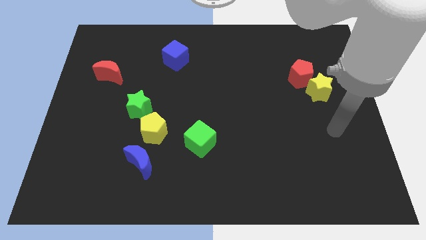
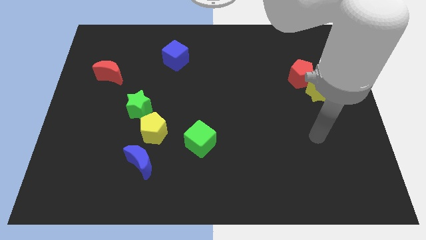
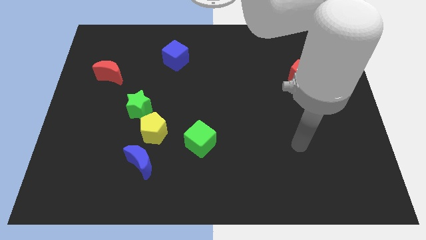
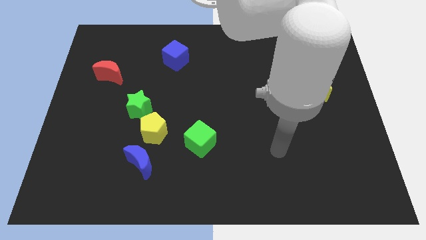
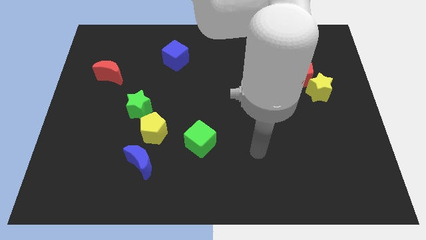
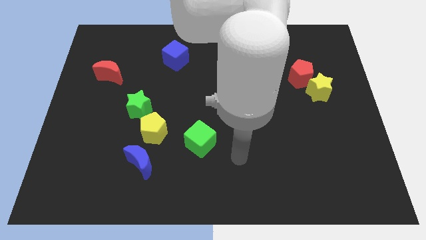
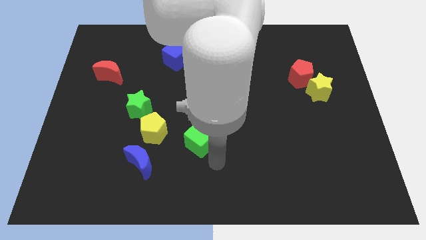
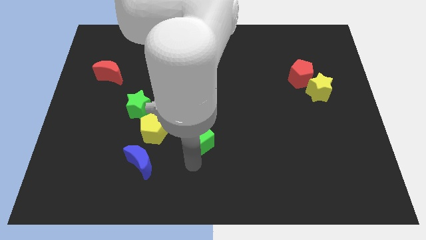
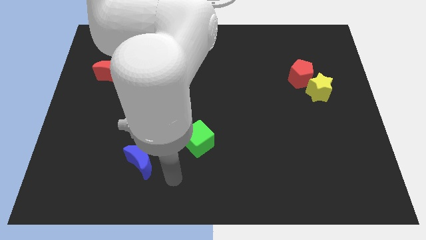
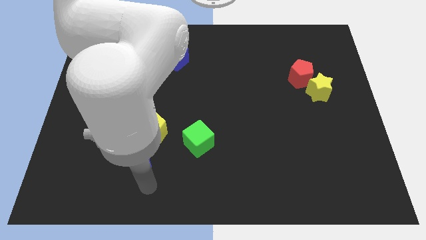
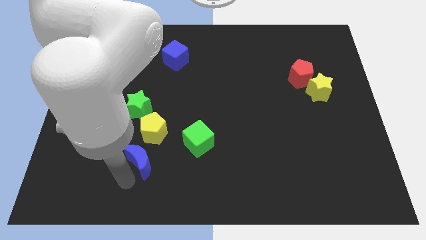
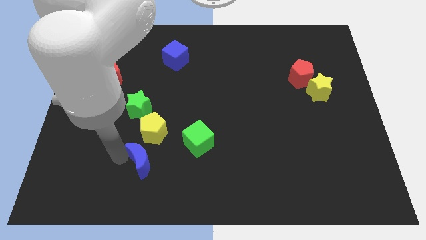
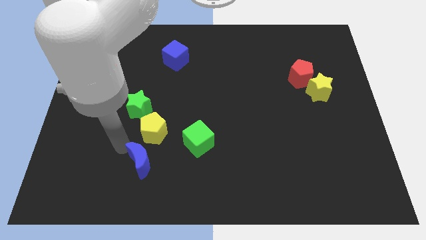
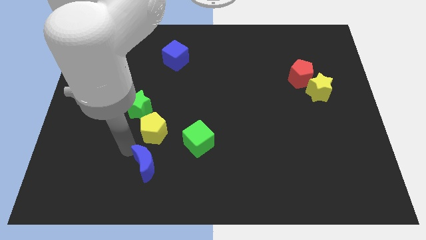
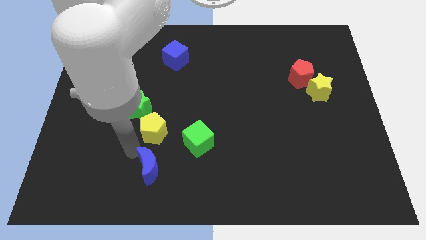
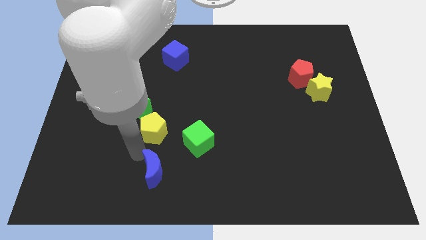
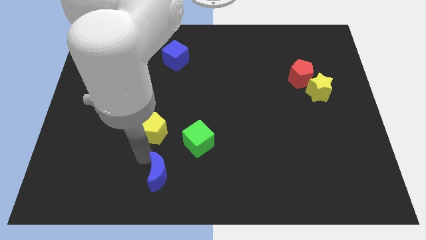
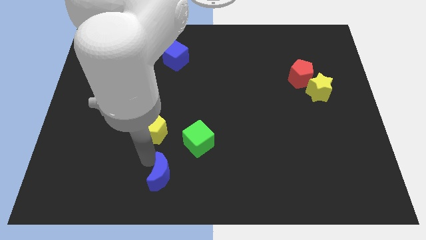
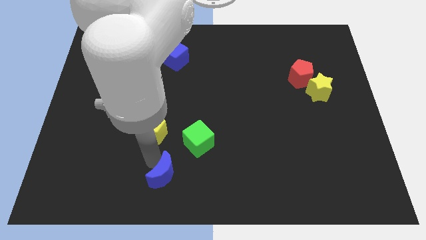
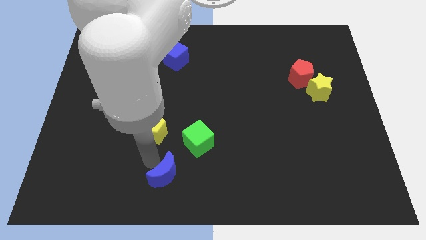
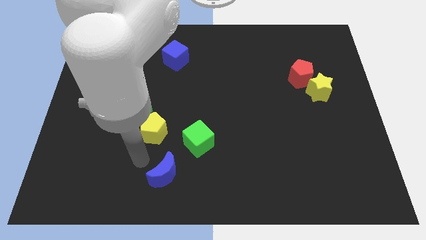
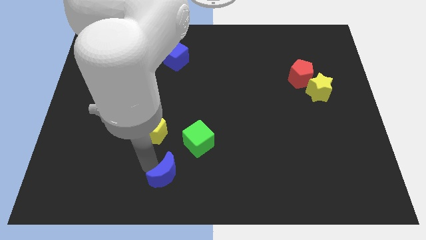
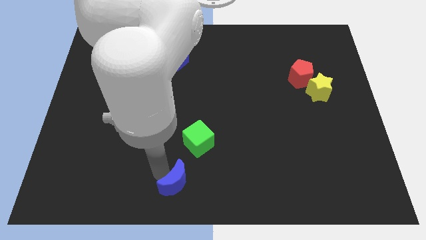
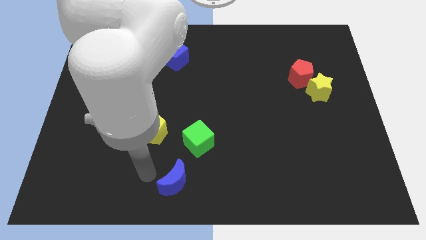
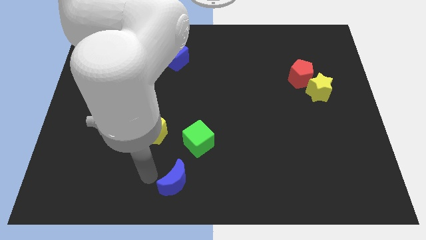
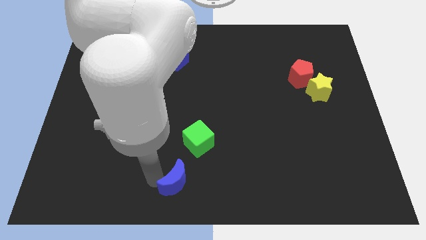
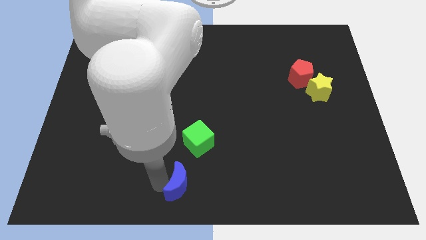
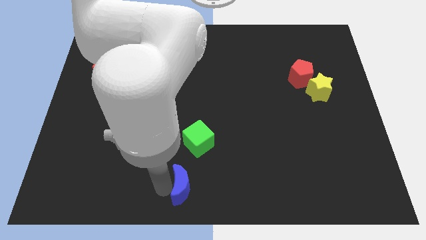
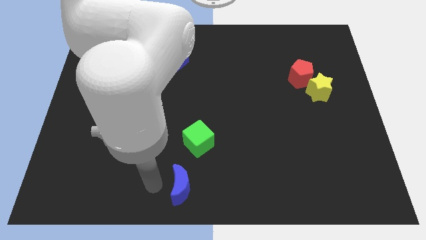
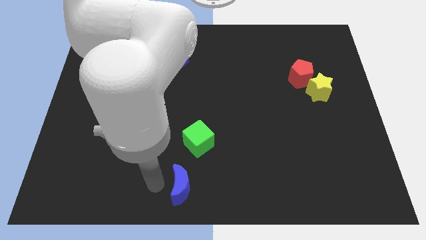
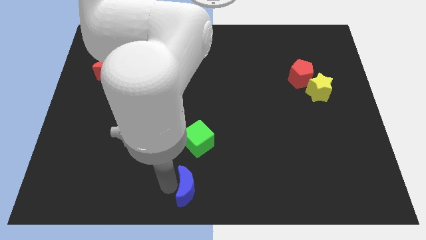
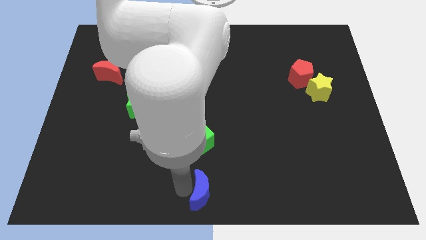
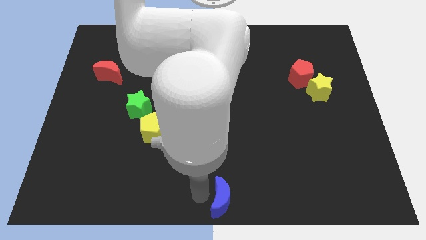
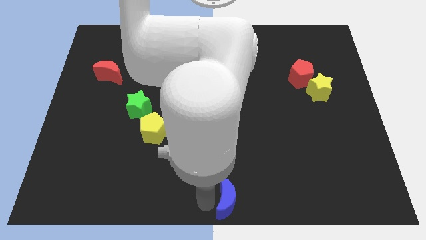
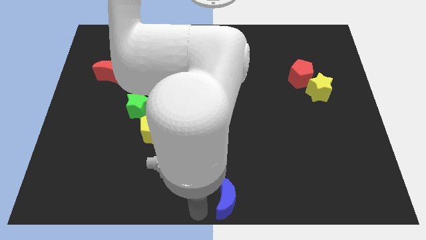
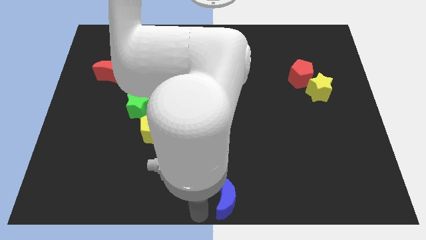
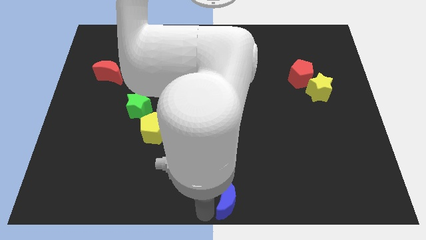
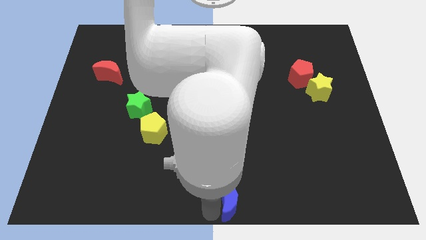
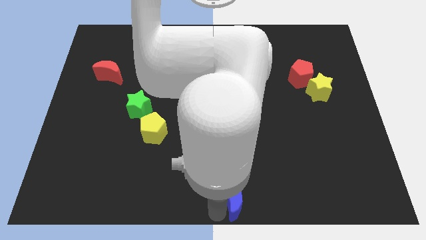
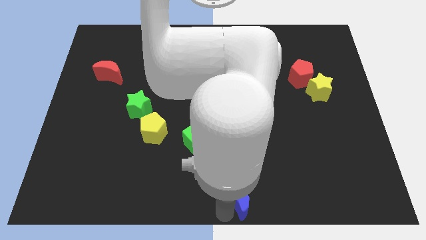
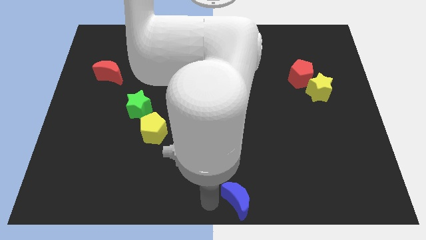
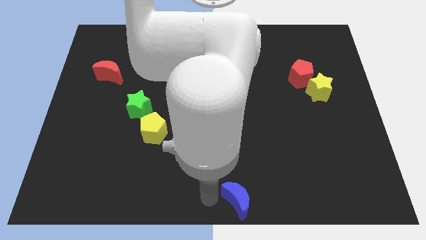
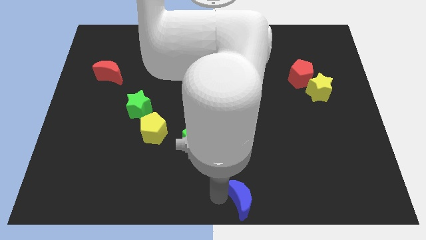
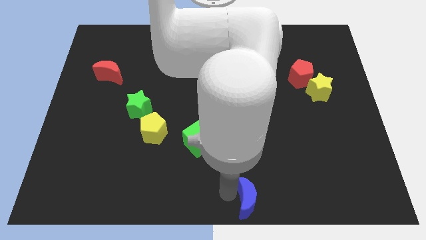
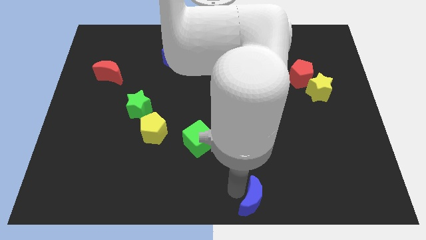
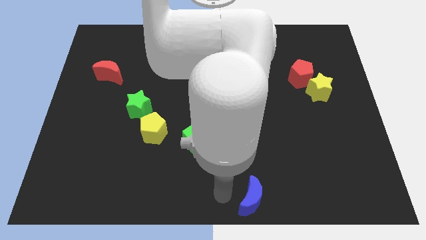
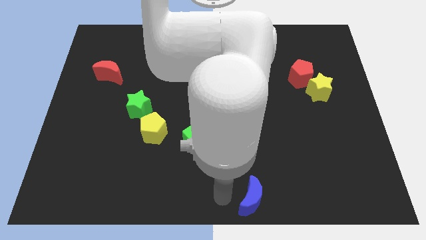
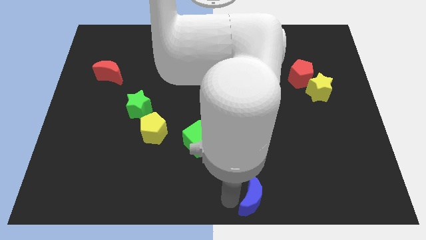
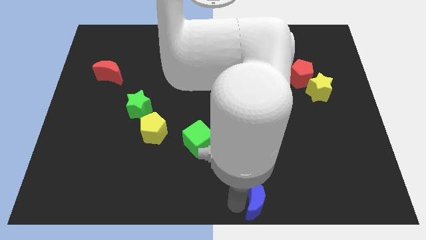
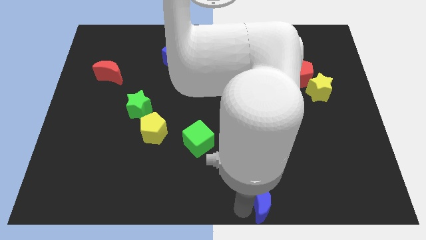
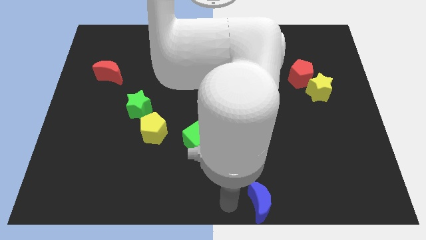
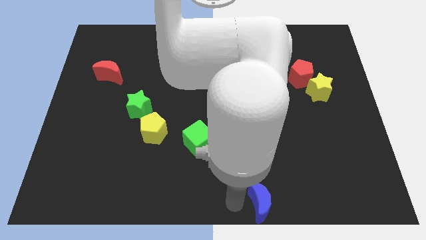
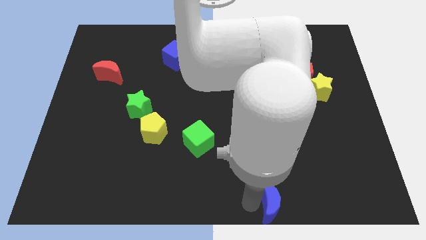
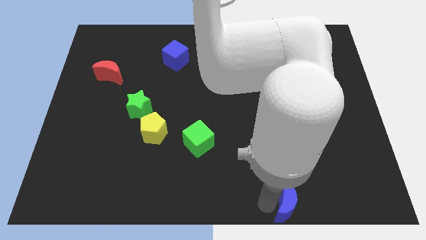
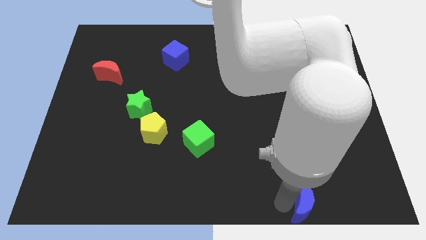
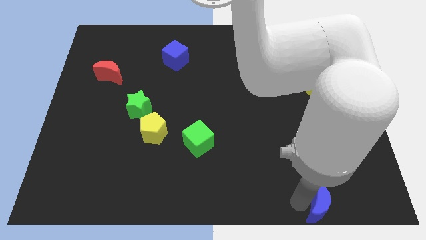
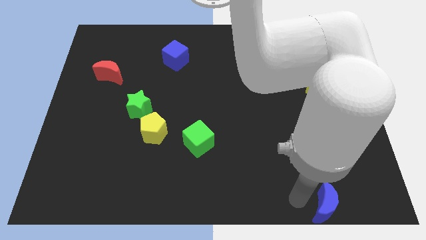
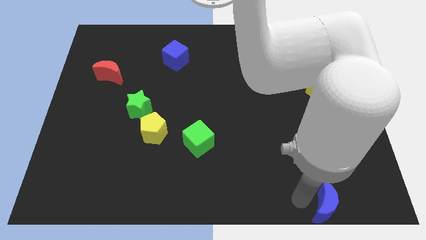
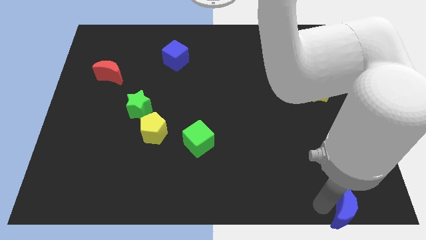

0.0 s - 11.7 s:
move the blue moon to the bottom right of the board

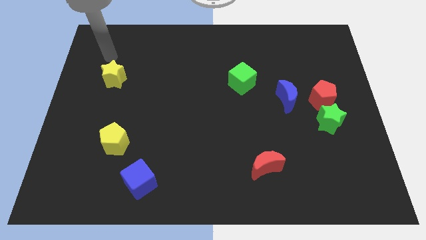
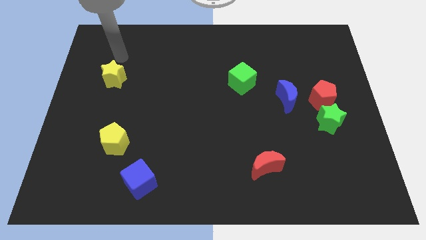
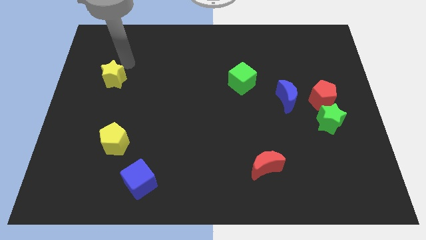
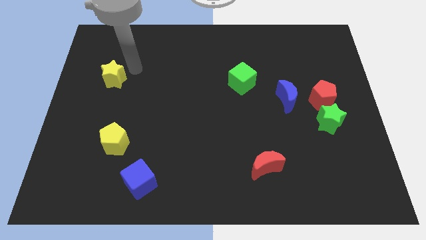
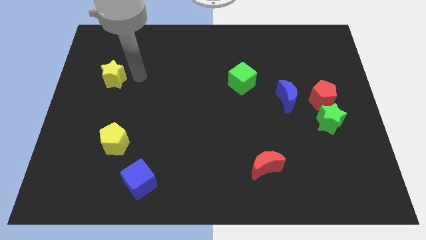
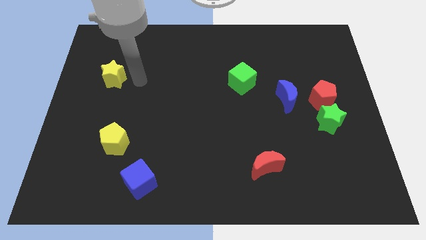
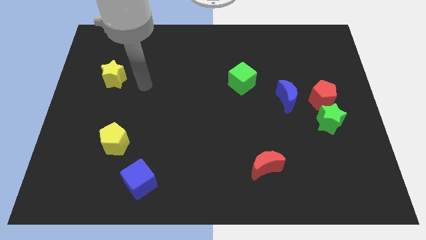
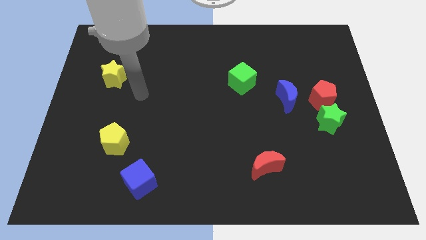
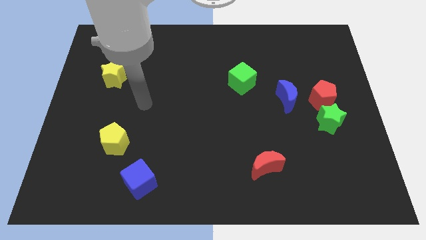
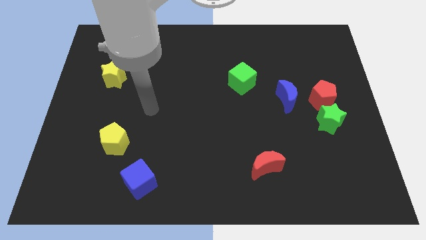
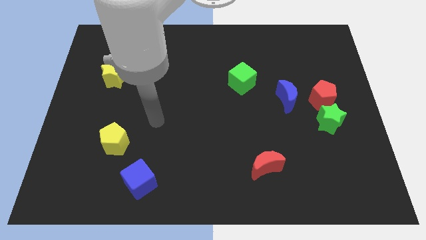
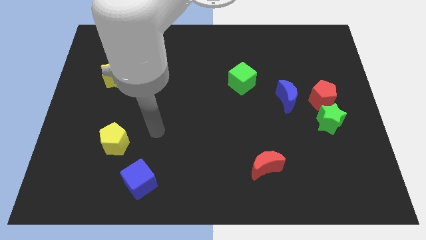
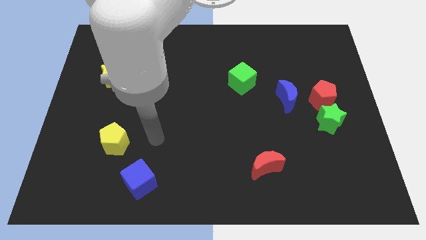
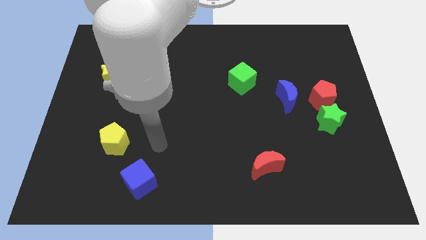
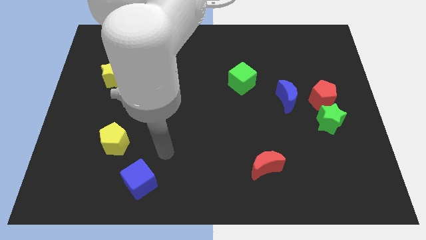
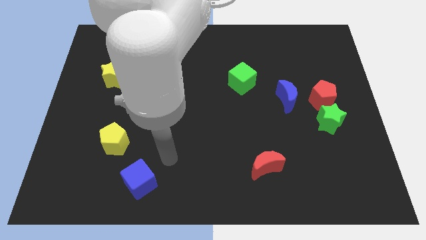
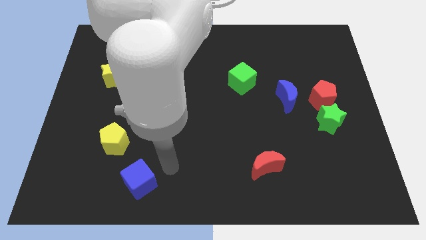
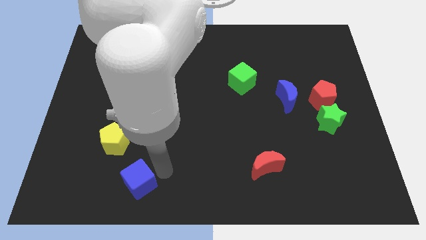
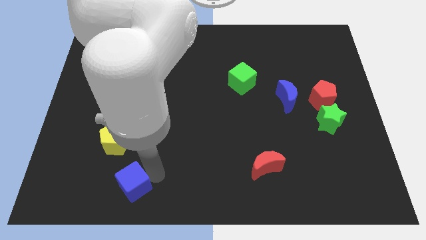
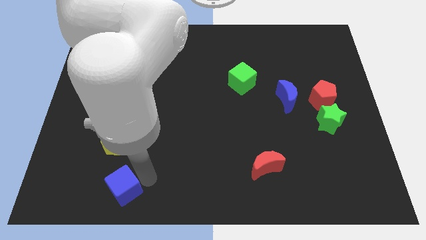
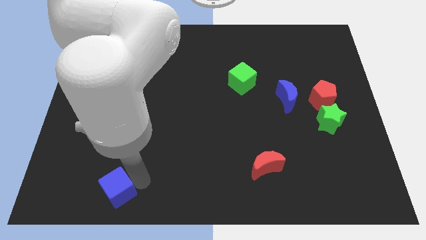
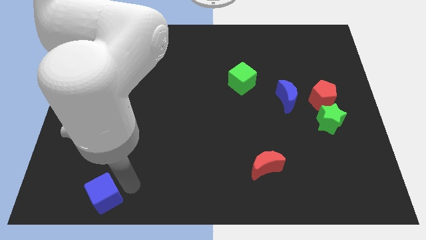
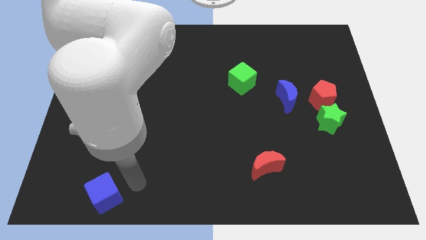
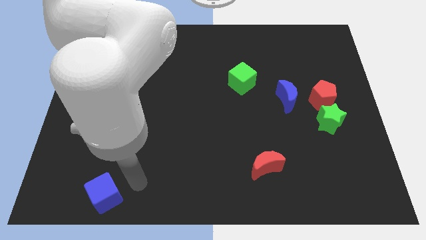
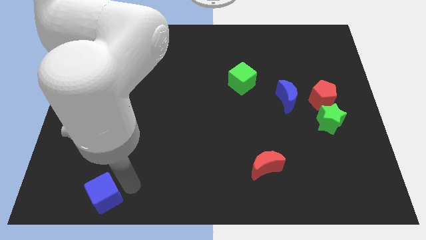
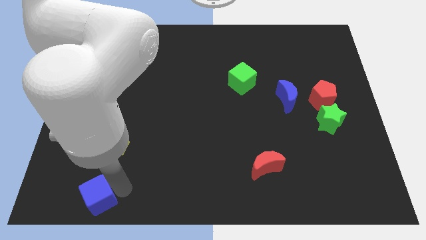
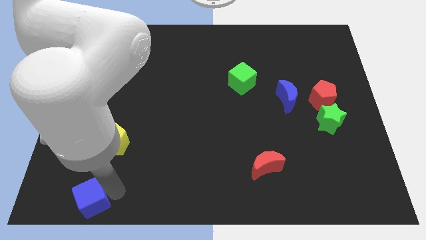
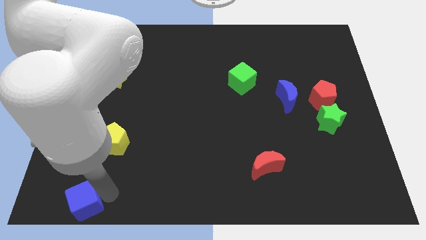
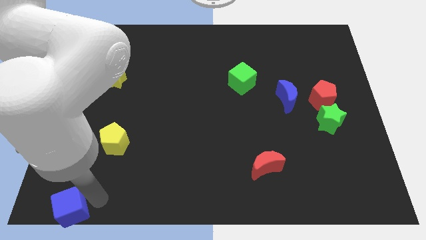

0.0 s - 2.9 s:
slide the blue cube to the bottom left
